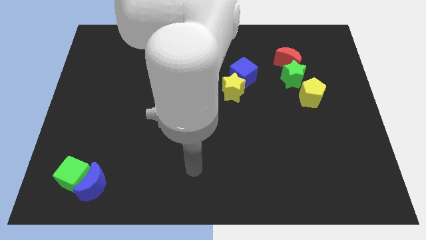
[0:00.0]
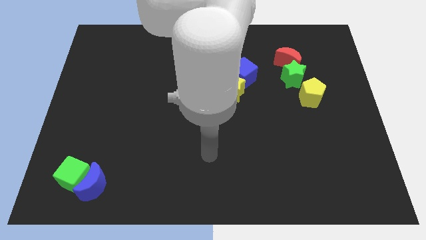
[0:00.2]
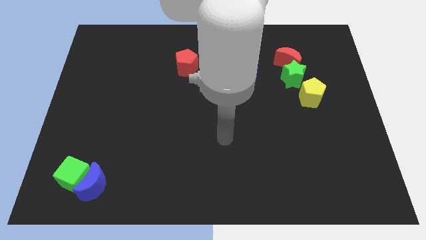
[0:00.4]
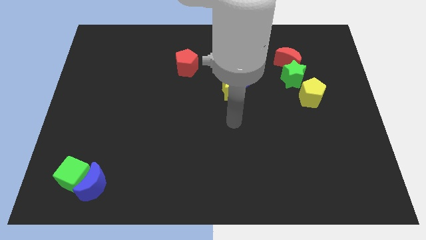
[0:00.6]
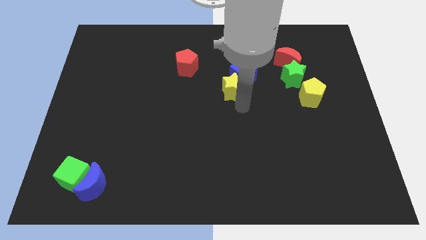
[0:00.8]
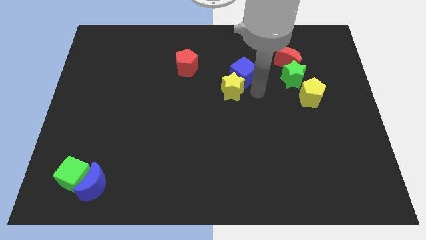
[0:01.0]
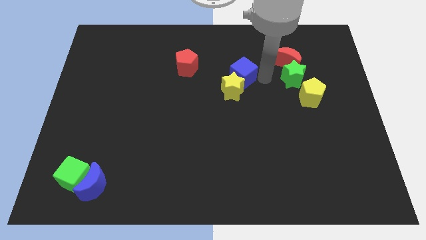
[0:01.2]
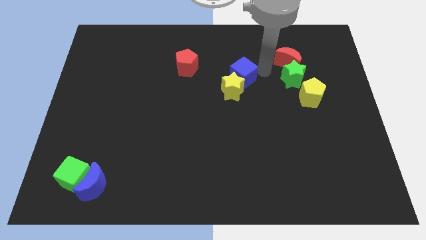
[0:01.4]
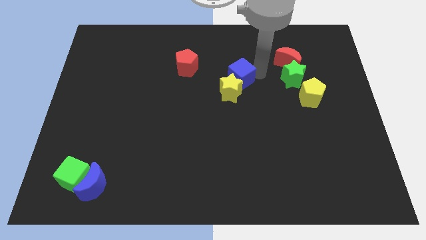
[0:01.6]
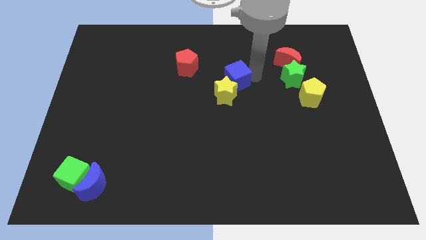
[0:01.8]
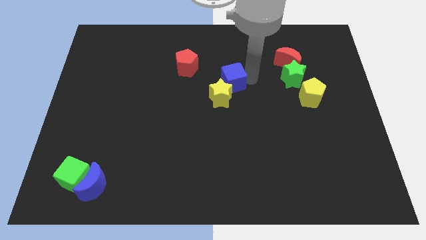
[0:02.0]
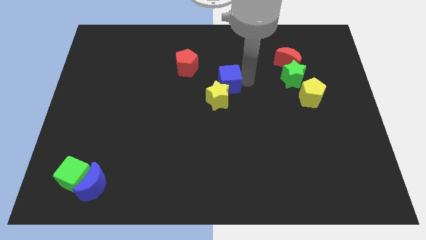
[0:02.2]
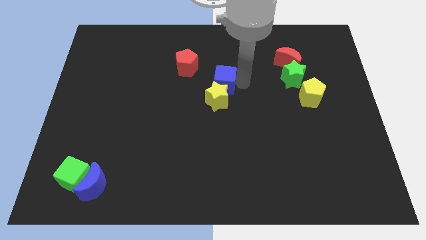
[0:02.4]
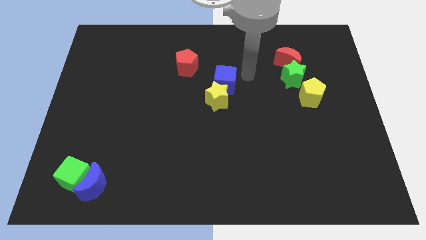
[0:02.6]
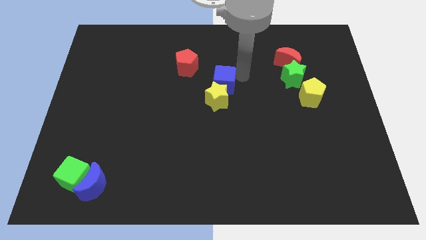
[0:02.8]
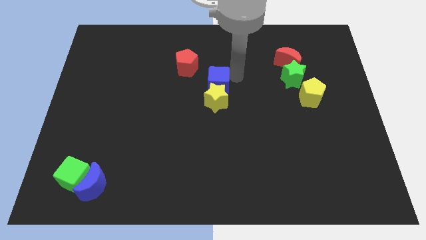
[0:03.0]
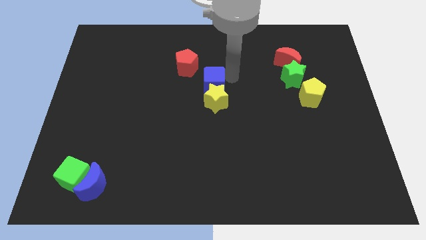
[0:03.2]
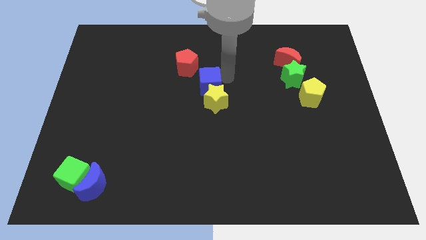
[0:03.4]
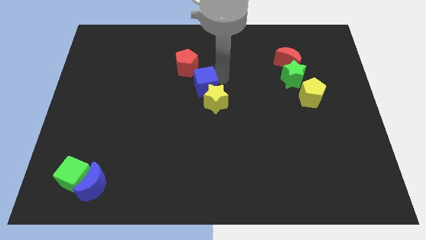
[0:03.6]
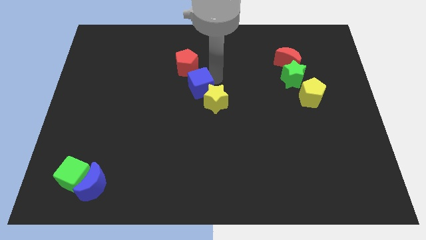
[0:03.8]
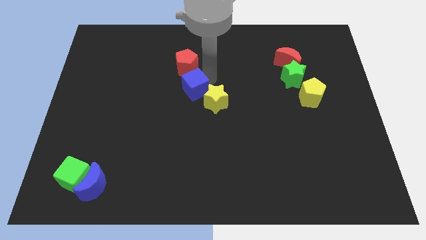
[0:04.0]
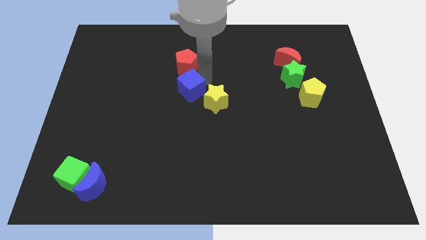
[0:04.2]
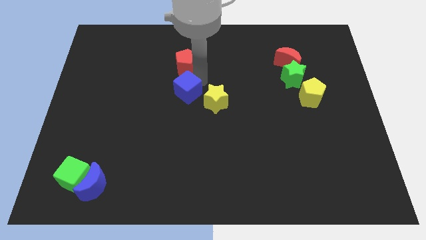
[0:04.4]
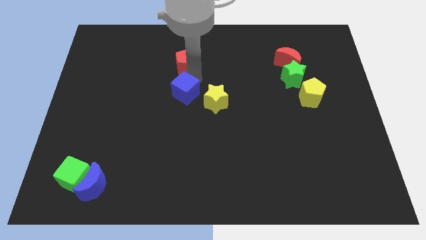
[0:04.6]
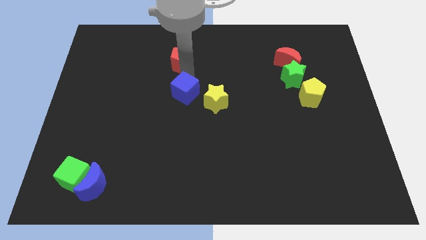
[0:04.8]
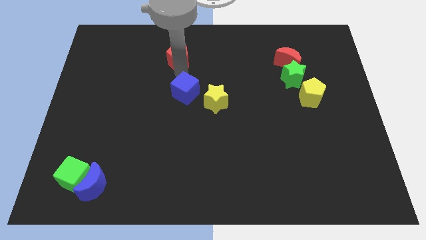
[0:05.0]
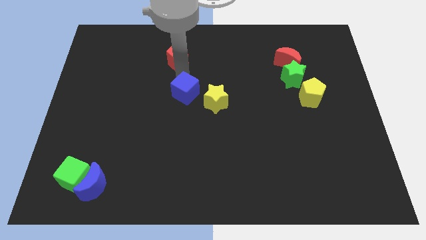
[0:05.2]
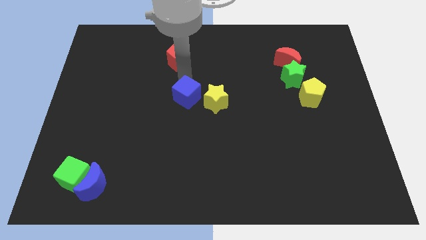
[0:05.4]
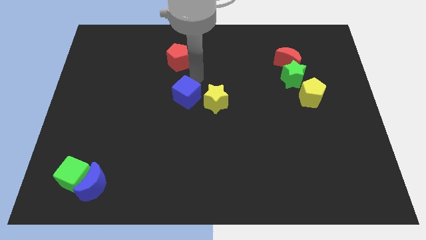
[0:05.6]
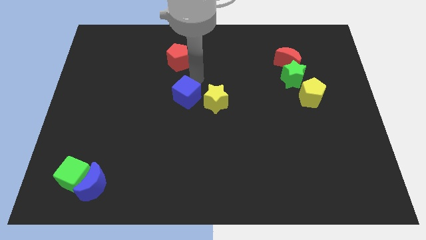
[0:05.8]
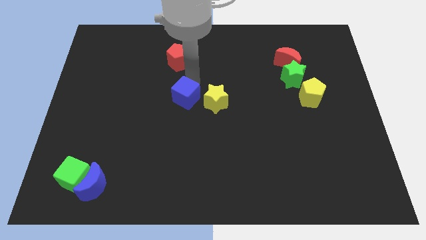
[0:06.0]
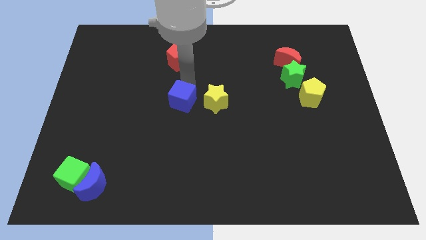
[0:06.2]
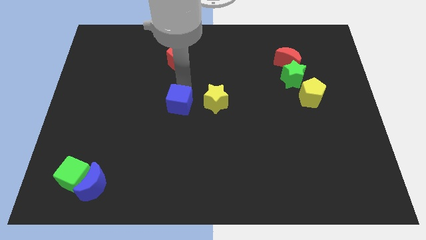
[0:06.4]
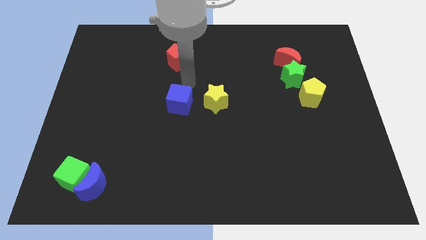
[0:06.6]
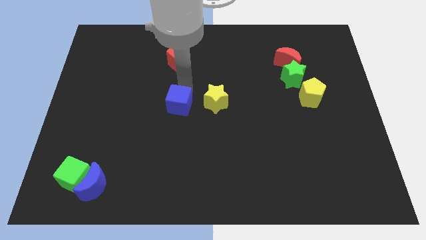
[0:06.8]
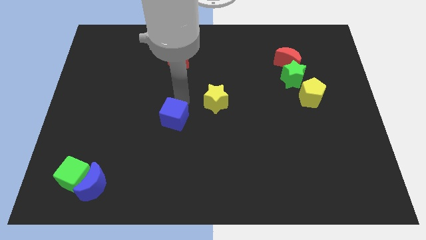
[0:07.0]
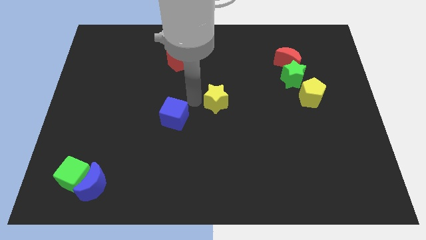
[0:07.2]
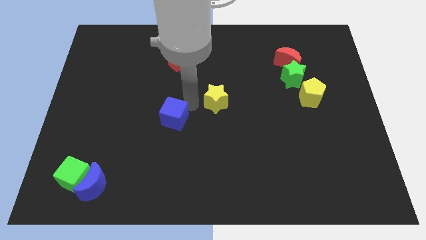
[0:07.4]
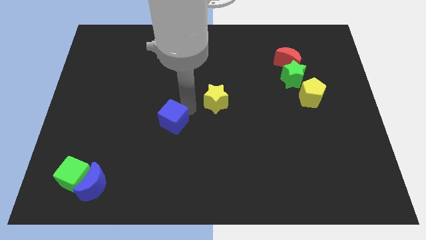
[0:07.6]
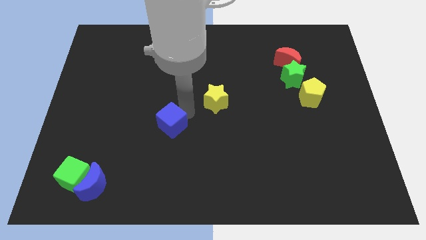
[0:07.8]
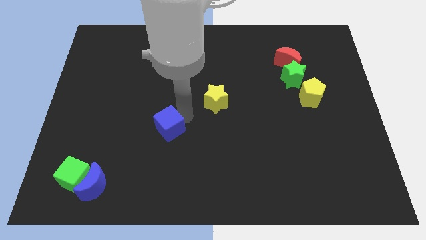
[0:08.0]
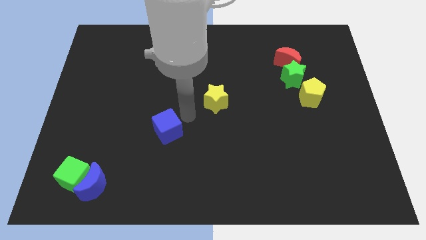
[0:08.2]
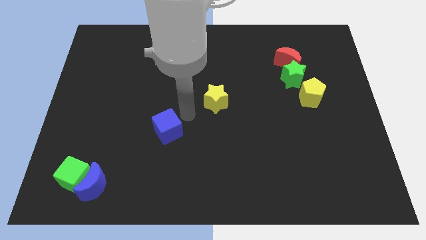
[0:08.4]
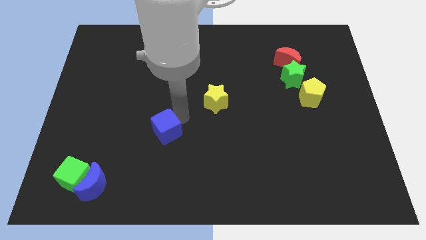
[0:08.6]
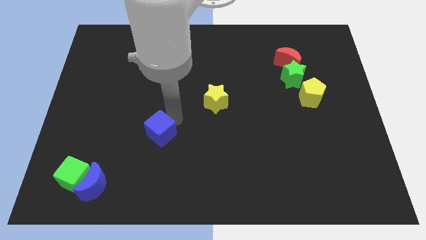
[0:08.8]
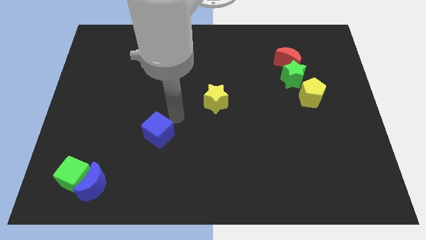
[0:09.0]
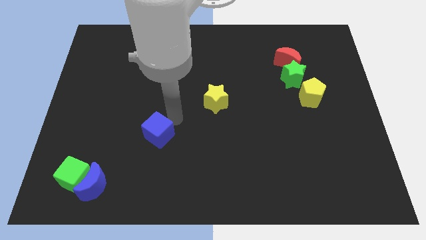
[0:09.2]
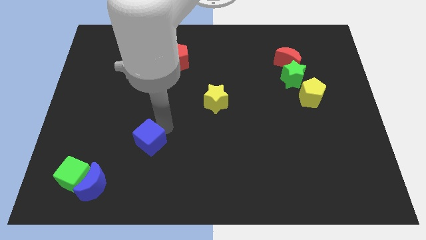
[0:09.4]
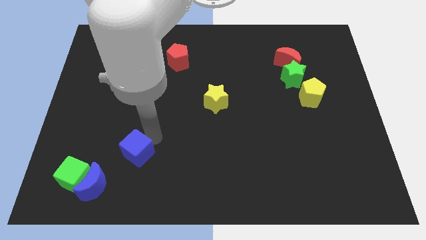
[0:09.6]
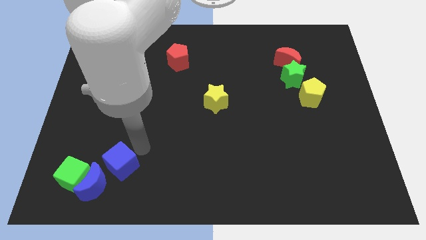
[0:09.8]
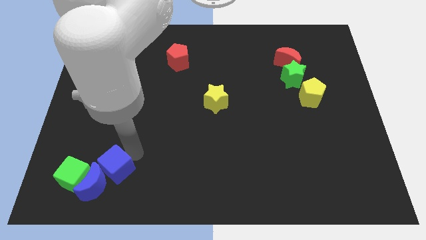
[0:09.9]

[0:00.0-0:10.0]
push the blue cube close to the blue moon

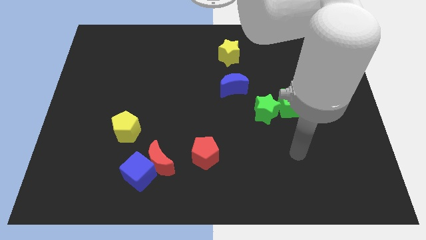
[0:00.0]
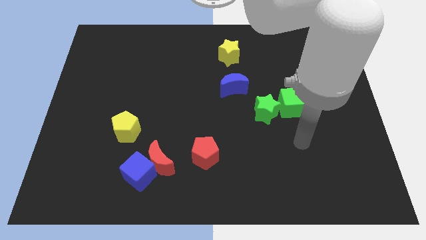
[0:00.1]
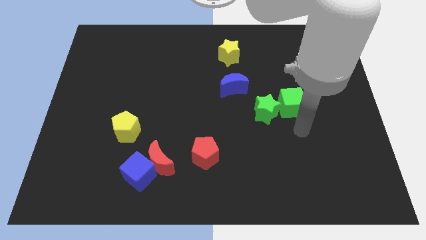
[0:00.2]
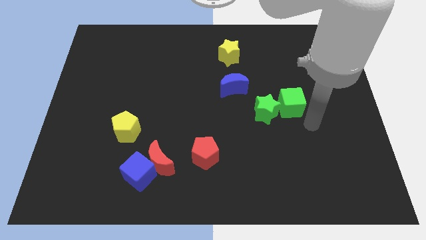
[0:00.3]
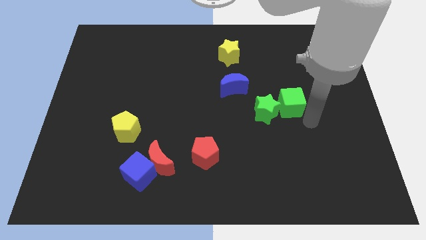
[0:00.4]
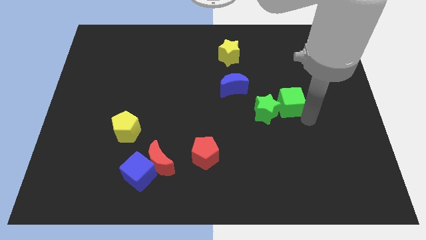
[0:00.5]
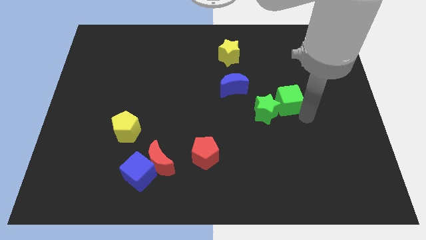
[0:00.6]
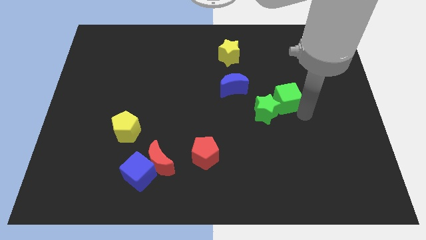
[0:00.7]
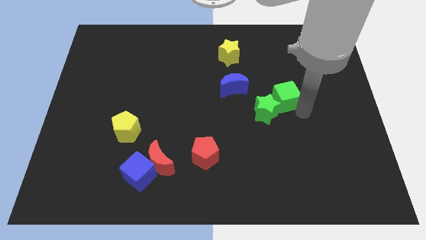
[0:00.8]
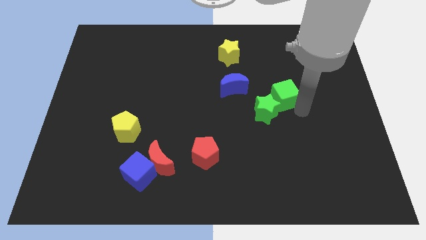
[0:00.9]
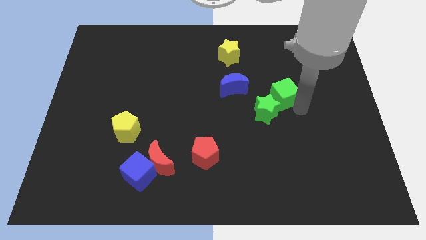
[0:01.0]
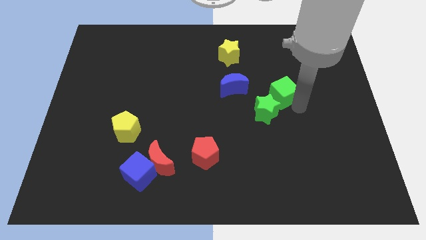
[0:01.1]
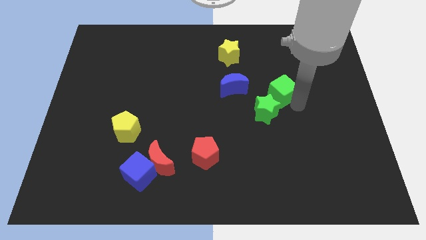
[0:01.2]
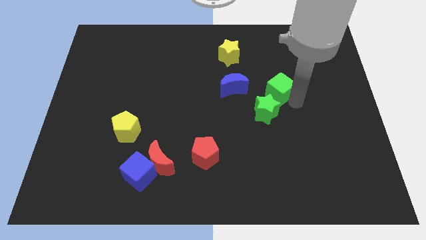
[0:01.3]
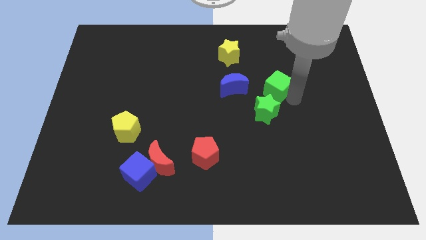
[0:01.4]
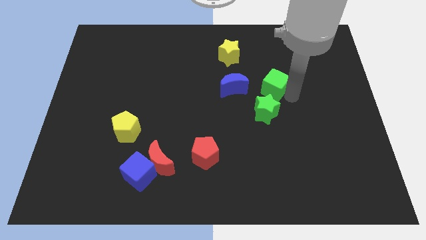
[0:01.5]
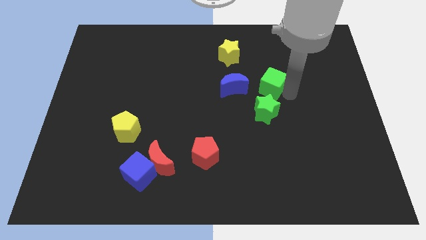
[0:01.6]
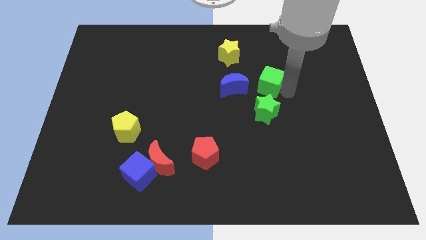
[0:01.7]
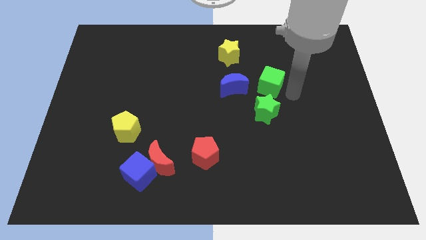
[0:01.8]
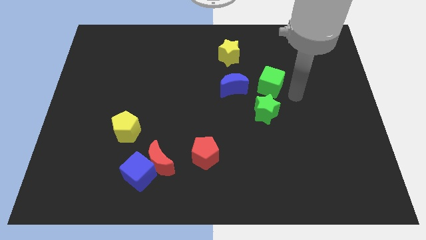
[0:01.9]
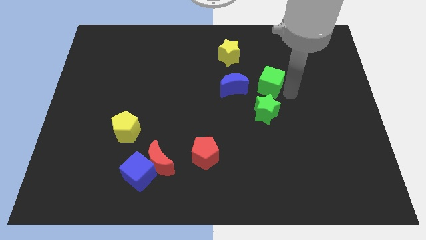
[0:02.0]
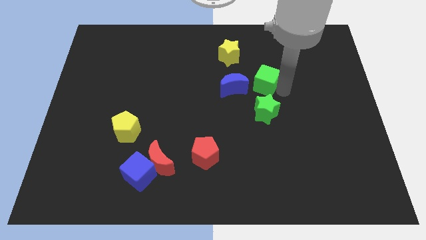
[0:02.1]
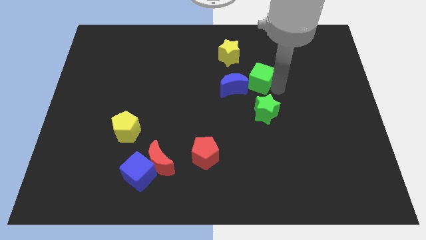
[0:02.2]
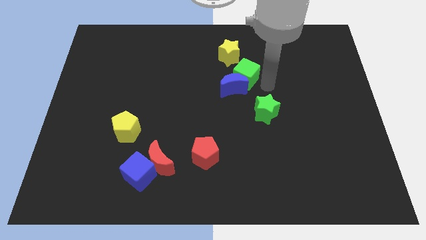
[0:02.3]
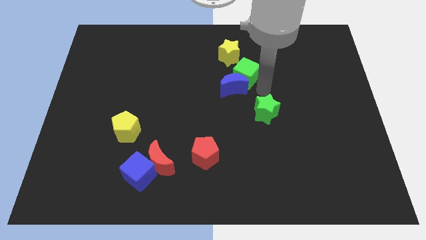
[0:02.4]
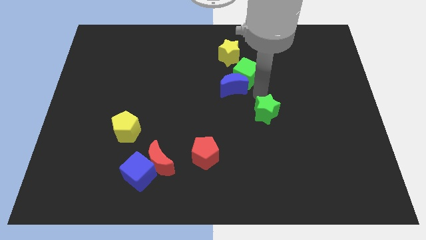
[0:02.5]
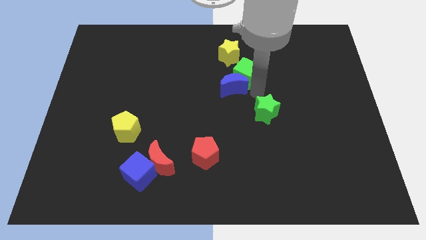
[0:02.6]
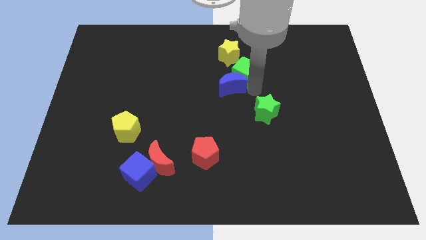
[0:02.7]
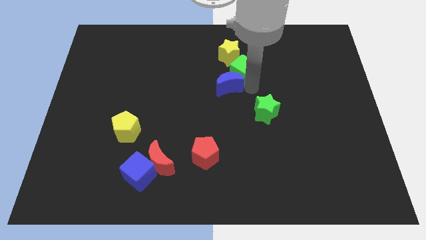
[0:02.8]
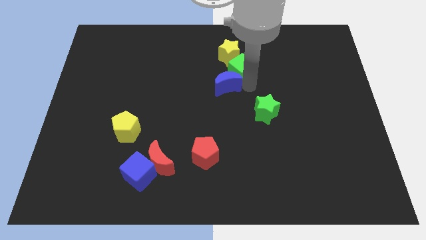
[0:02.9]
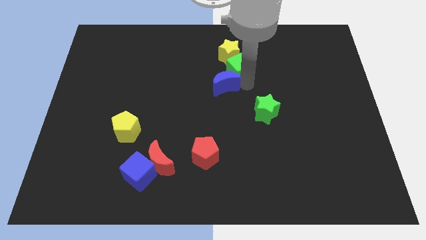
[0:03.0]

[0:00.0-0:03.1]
move the green cube towards the yellow star

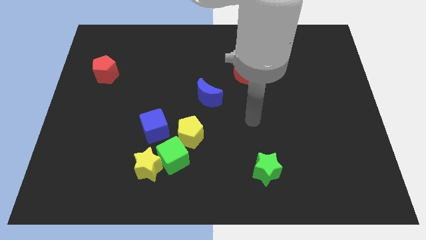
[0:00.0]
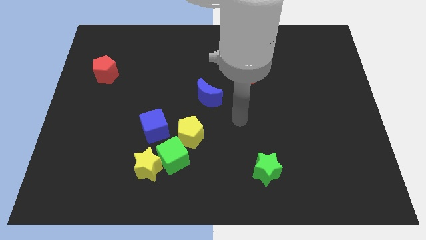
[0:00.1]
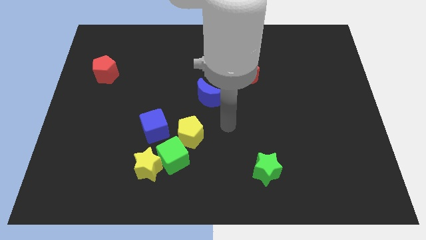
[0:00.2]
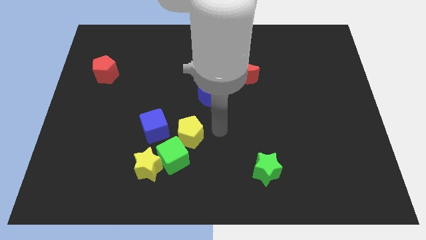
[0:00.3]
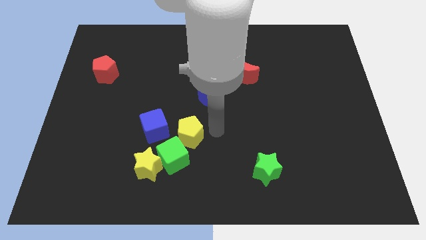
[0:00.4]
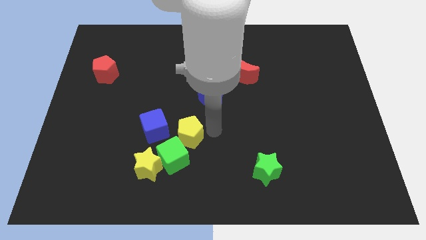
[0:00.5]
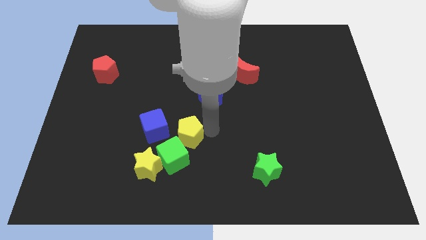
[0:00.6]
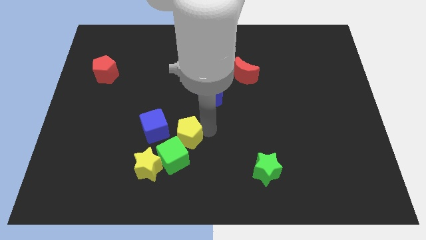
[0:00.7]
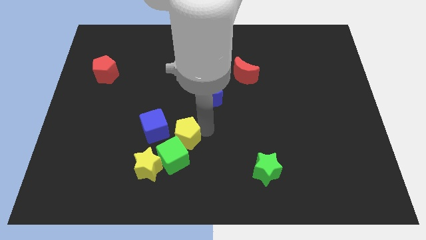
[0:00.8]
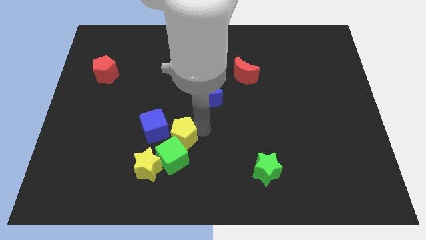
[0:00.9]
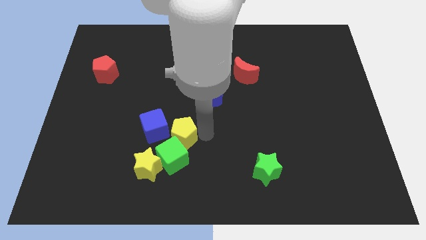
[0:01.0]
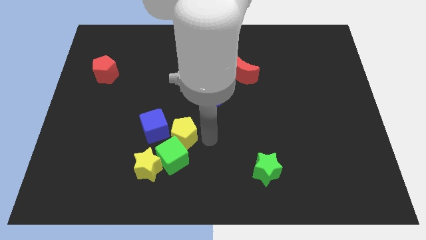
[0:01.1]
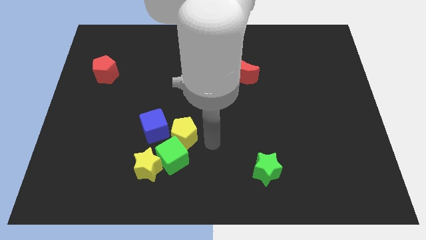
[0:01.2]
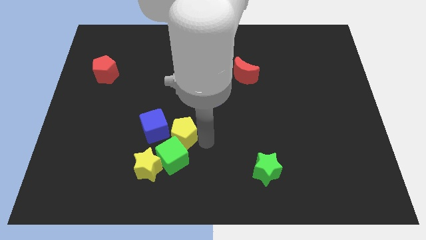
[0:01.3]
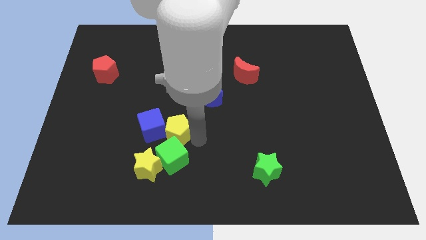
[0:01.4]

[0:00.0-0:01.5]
slide the yellow pentagon next to the blue cube
